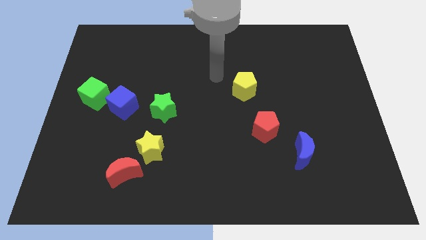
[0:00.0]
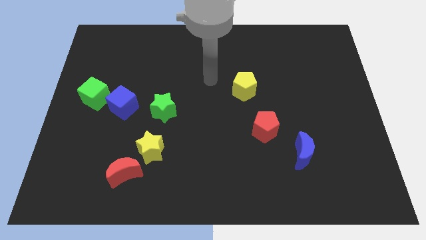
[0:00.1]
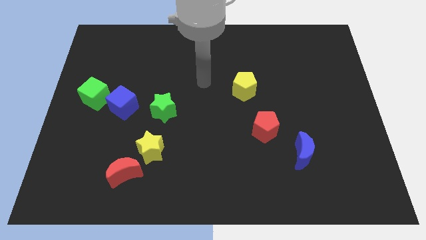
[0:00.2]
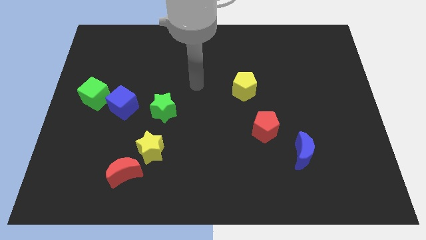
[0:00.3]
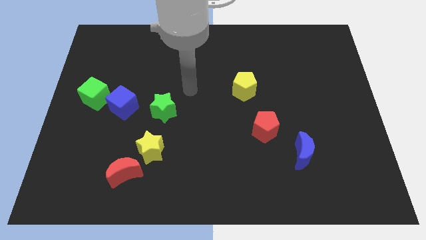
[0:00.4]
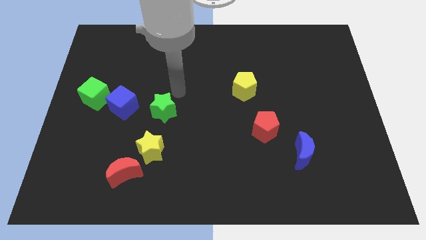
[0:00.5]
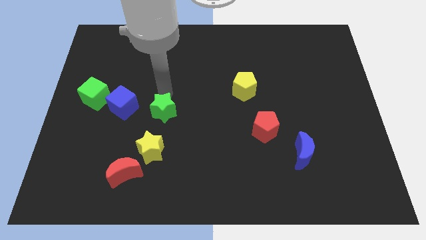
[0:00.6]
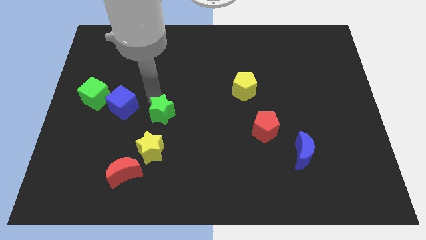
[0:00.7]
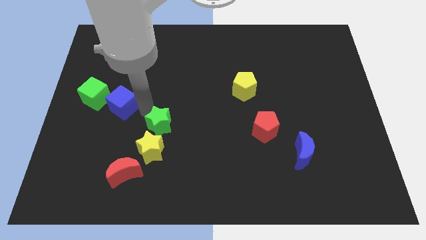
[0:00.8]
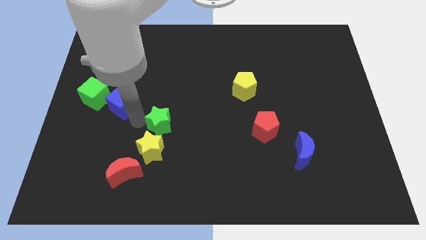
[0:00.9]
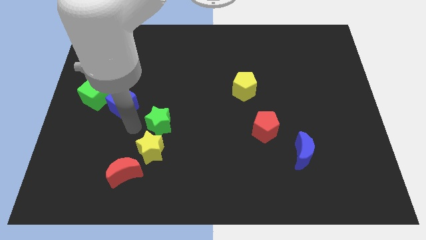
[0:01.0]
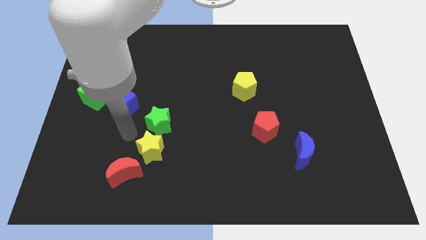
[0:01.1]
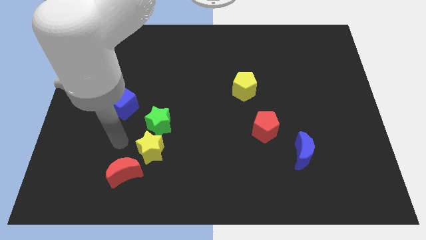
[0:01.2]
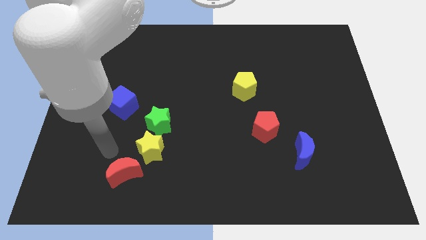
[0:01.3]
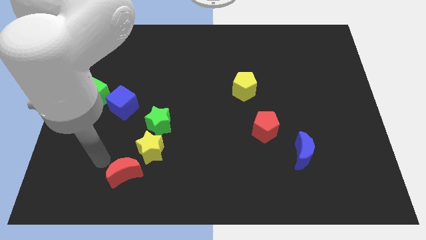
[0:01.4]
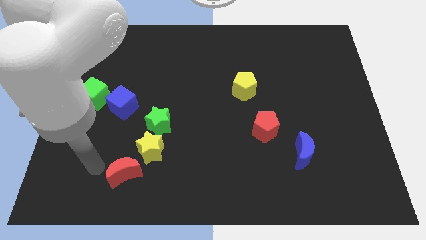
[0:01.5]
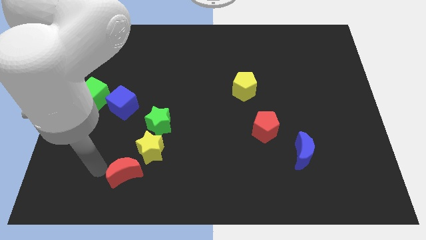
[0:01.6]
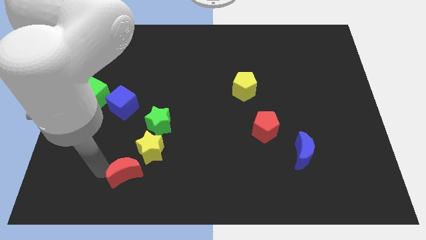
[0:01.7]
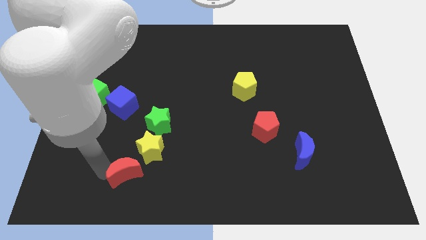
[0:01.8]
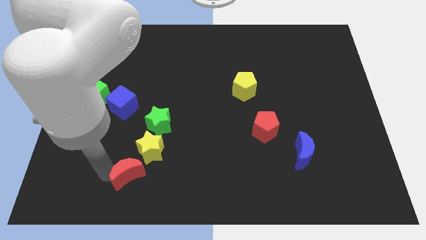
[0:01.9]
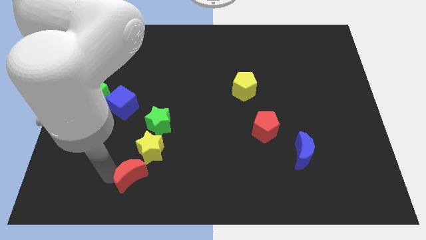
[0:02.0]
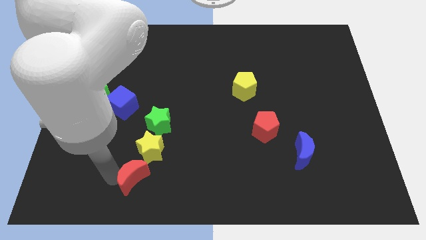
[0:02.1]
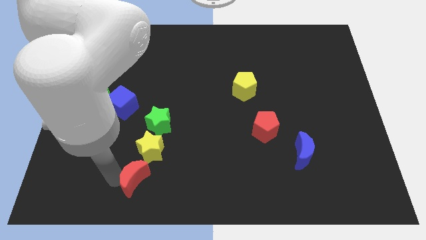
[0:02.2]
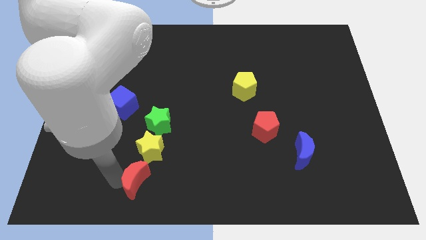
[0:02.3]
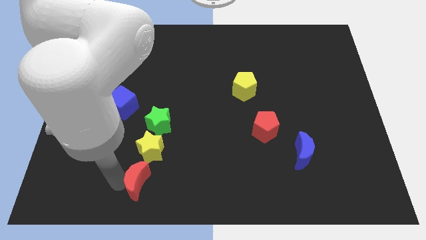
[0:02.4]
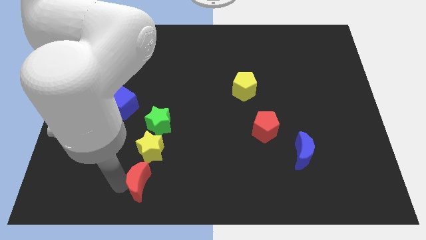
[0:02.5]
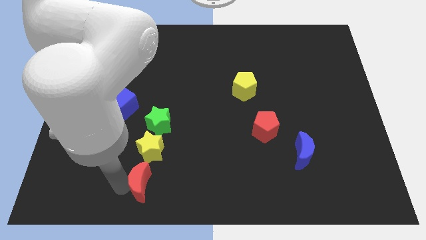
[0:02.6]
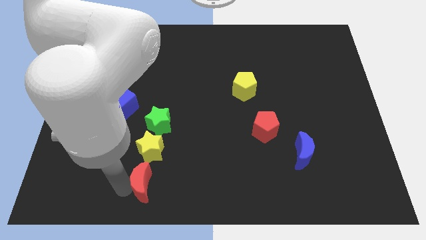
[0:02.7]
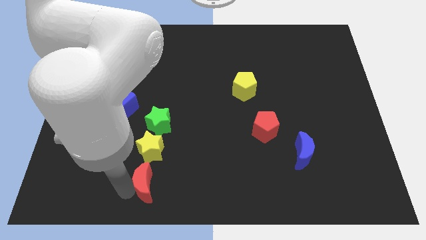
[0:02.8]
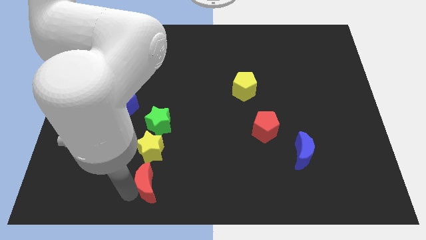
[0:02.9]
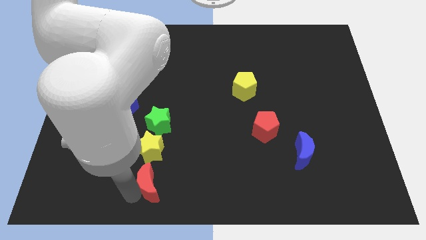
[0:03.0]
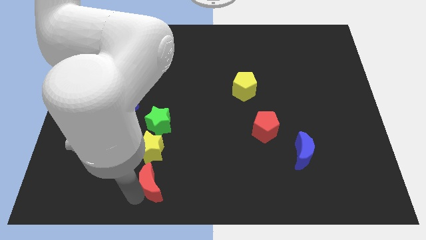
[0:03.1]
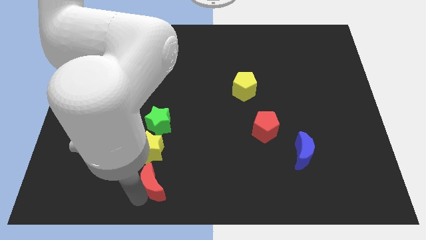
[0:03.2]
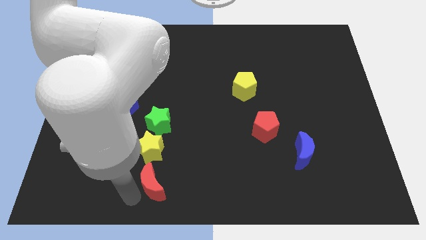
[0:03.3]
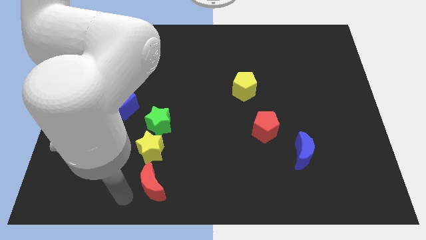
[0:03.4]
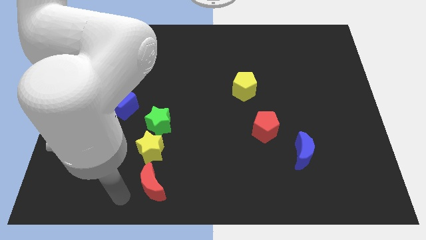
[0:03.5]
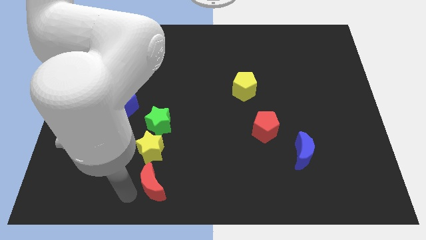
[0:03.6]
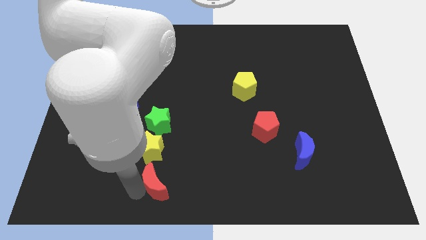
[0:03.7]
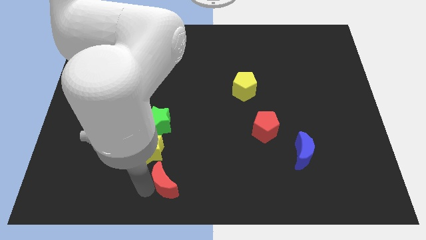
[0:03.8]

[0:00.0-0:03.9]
slide the red moon to the right somewhat

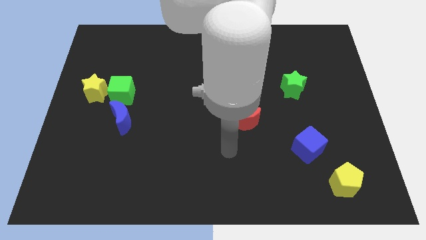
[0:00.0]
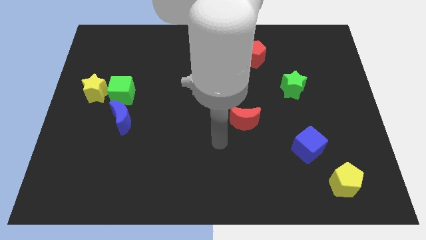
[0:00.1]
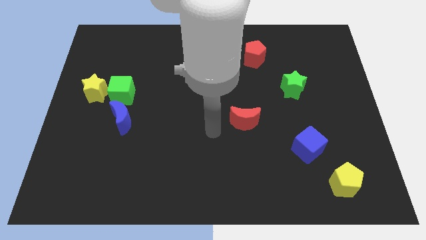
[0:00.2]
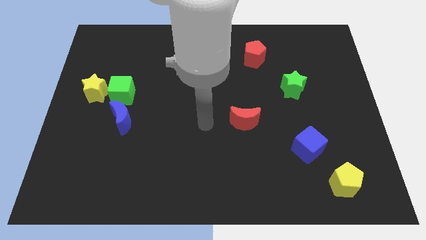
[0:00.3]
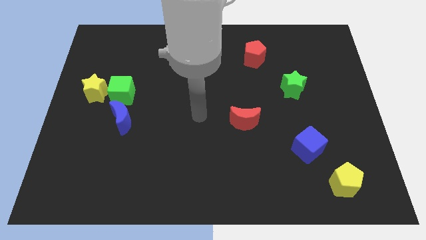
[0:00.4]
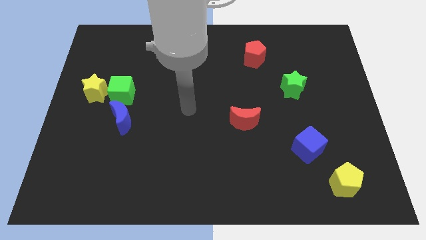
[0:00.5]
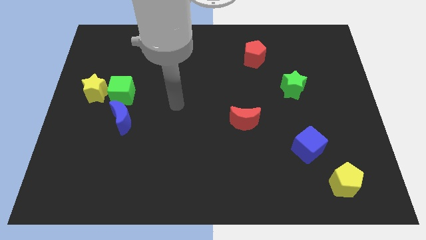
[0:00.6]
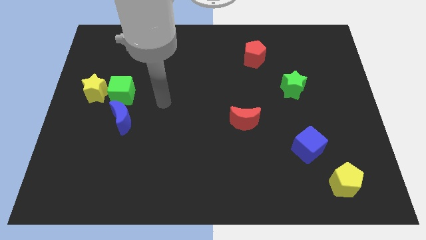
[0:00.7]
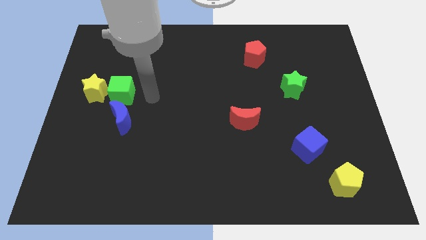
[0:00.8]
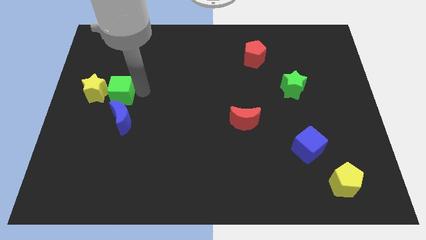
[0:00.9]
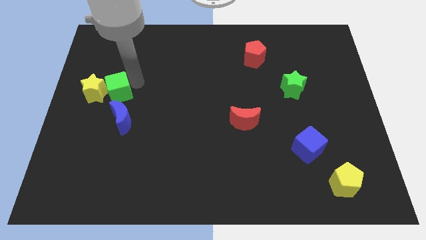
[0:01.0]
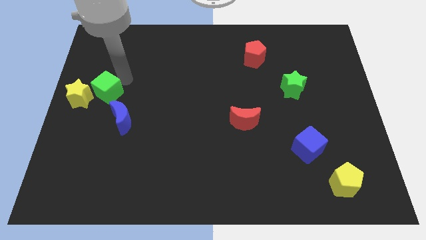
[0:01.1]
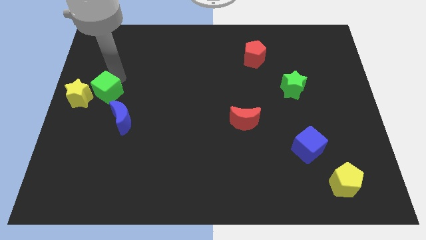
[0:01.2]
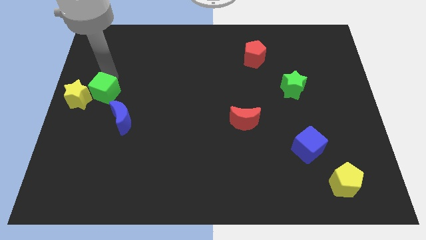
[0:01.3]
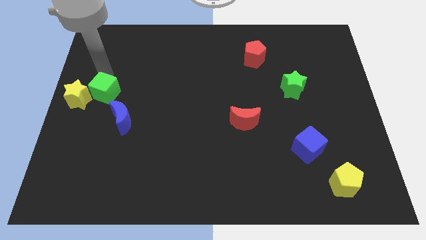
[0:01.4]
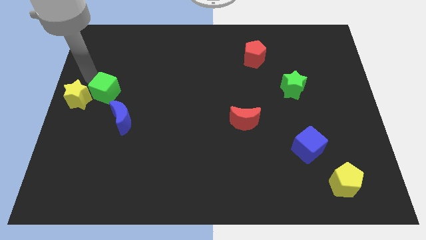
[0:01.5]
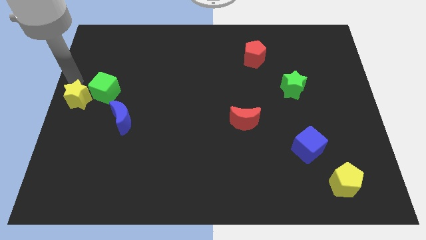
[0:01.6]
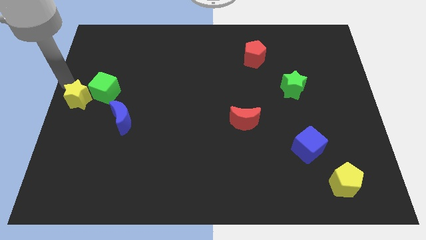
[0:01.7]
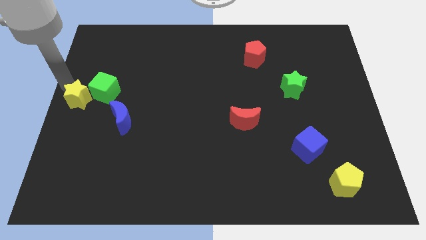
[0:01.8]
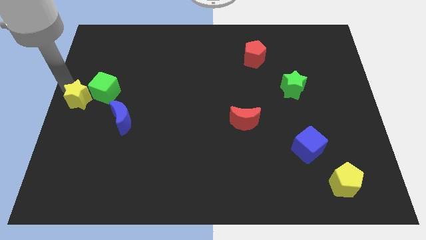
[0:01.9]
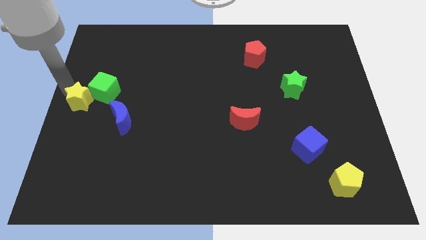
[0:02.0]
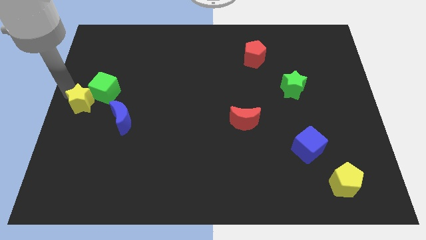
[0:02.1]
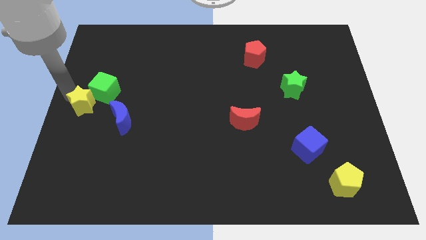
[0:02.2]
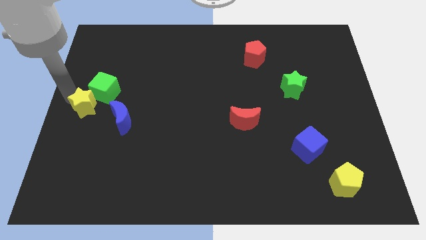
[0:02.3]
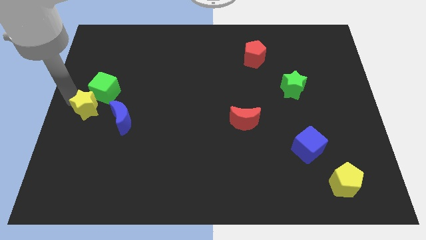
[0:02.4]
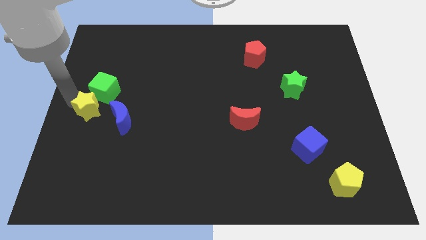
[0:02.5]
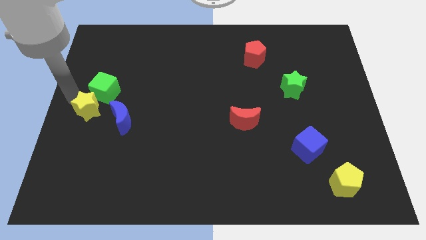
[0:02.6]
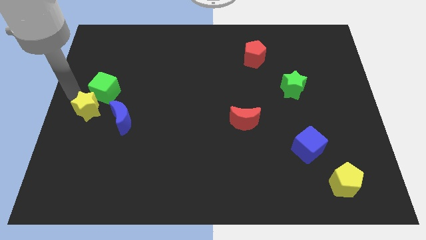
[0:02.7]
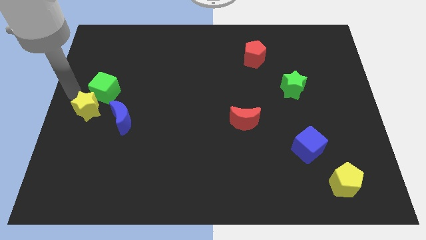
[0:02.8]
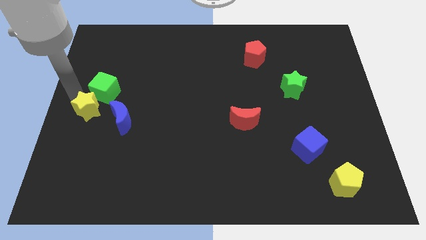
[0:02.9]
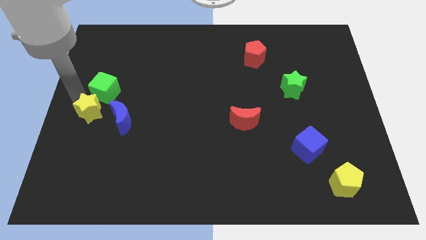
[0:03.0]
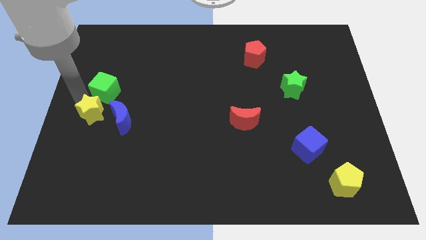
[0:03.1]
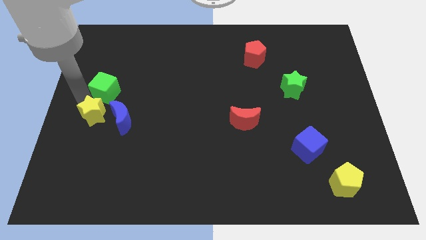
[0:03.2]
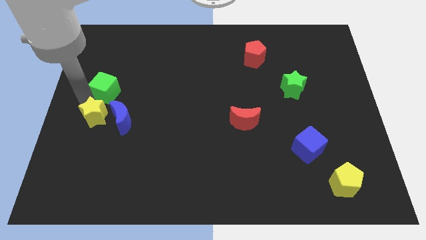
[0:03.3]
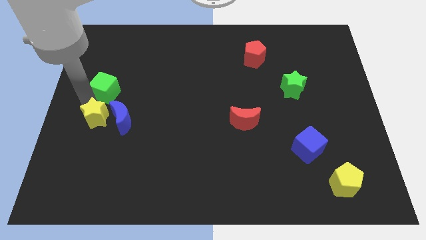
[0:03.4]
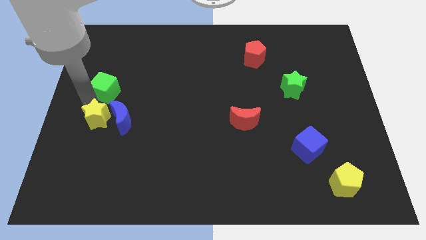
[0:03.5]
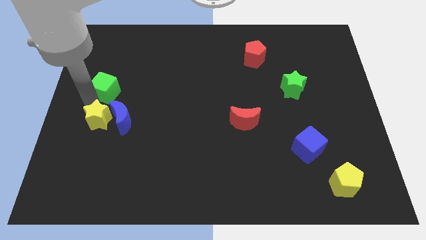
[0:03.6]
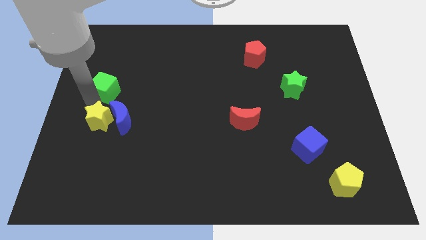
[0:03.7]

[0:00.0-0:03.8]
slightly move the yellow star downwards and to the right diagonally

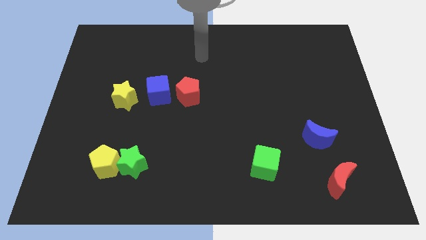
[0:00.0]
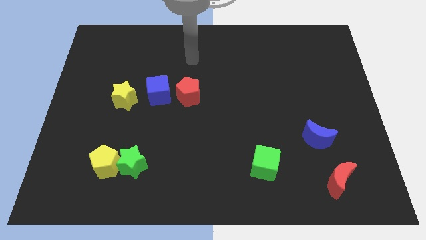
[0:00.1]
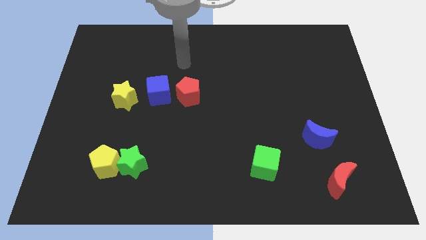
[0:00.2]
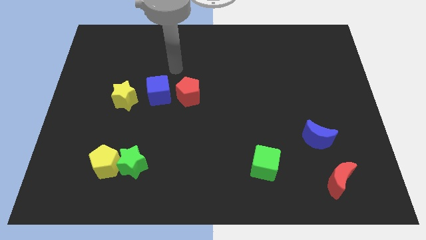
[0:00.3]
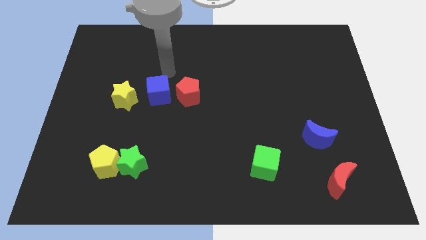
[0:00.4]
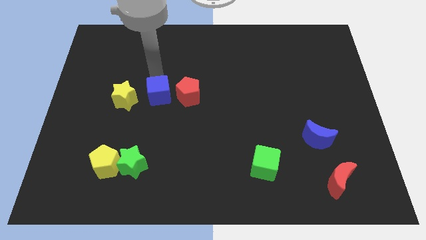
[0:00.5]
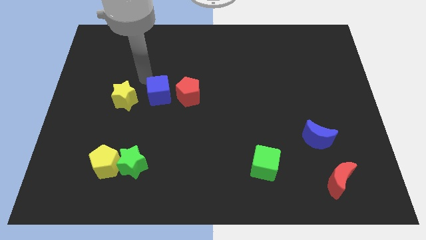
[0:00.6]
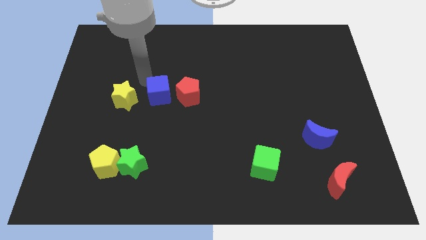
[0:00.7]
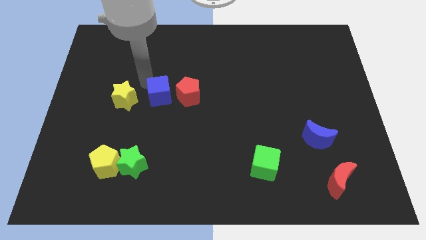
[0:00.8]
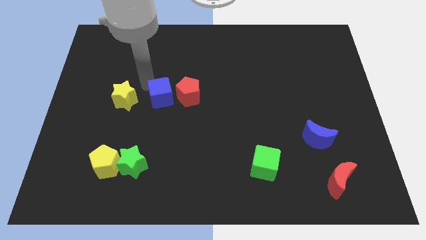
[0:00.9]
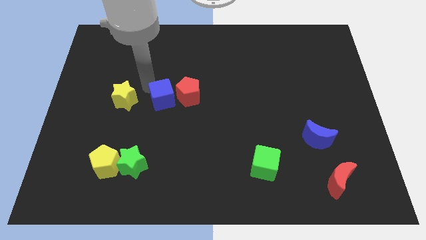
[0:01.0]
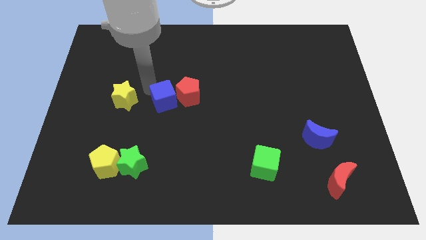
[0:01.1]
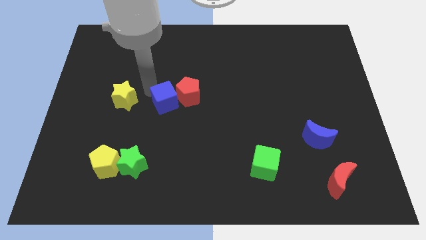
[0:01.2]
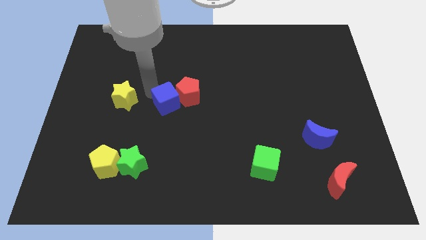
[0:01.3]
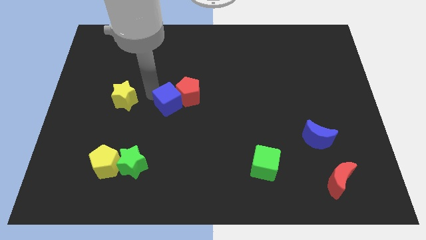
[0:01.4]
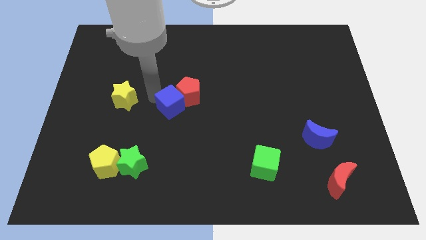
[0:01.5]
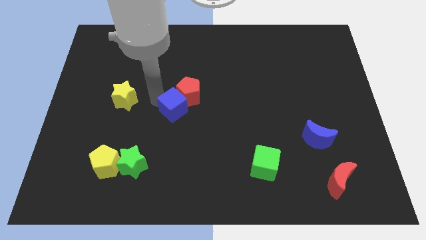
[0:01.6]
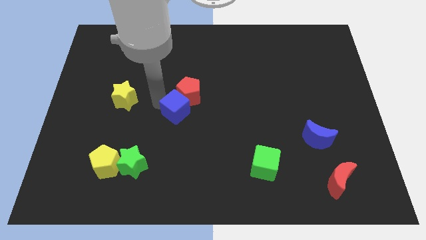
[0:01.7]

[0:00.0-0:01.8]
move the blue cube downwards and to the right slightly
